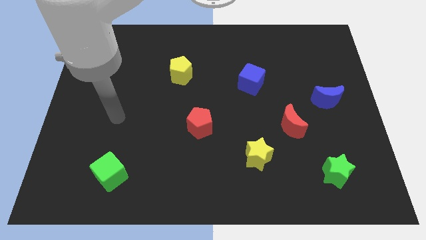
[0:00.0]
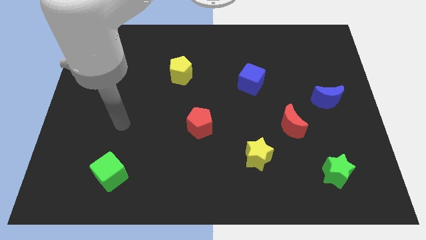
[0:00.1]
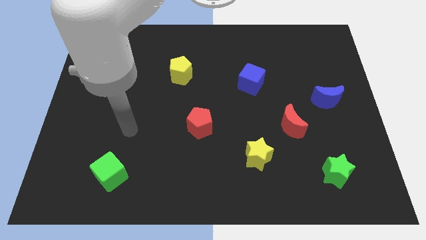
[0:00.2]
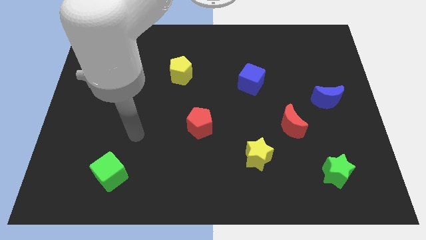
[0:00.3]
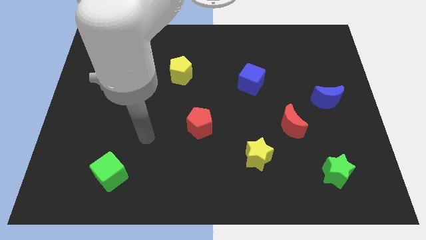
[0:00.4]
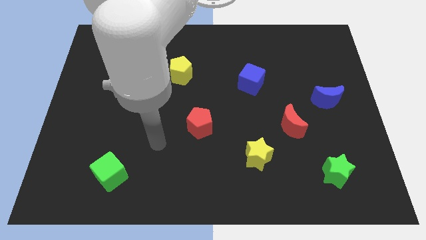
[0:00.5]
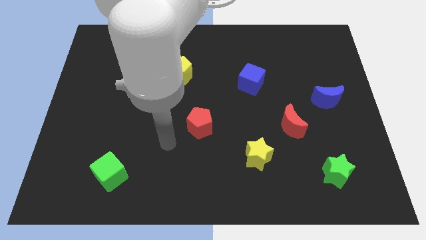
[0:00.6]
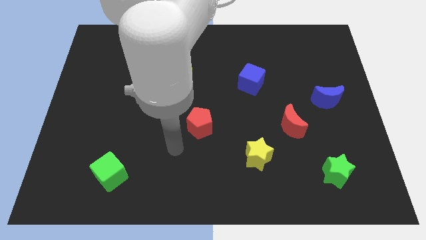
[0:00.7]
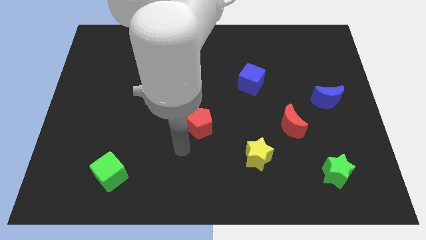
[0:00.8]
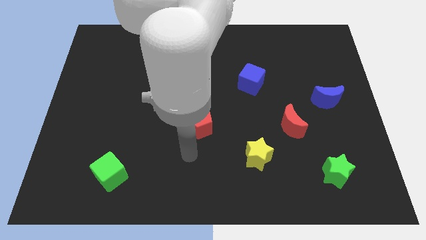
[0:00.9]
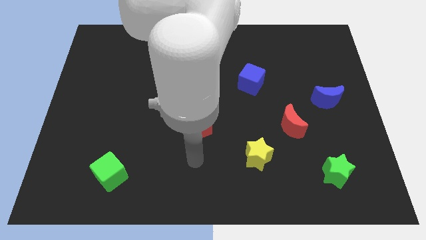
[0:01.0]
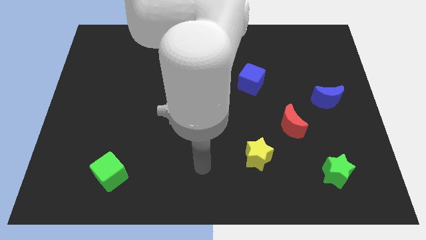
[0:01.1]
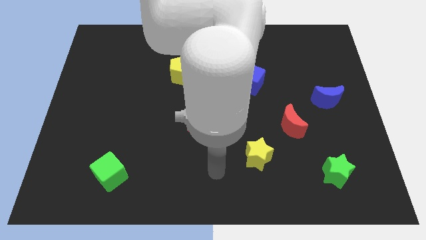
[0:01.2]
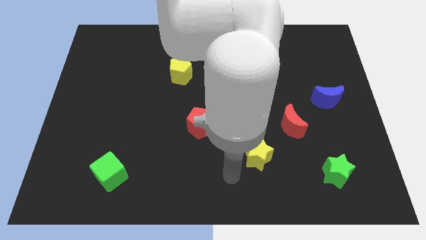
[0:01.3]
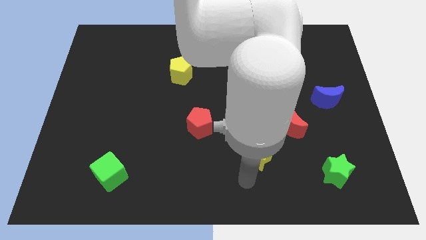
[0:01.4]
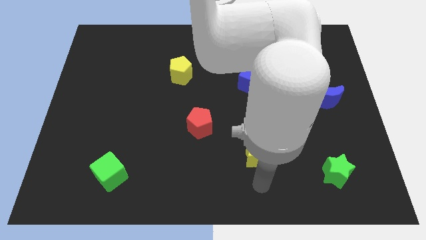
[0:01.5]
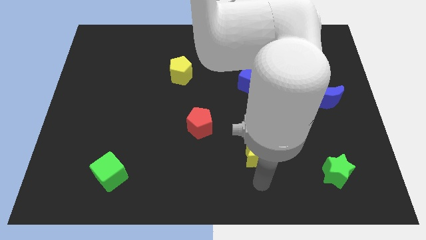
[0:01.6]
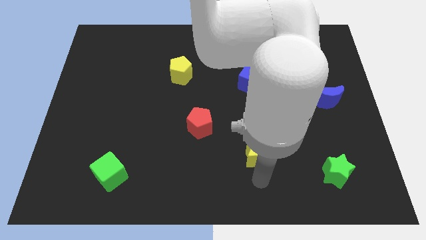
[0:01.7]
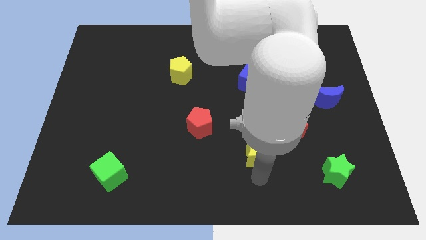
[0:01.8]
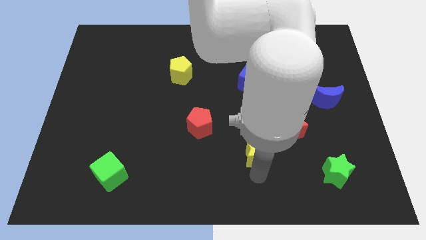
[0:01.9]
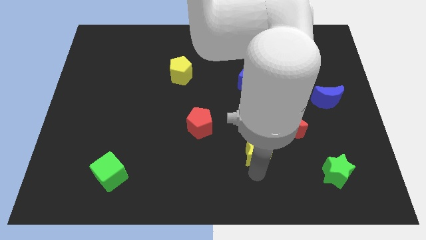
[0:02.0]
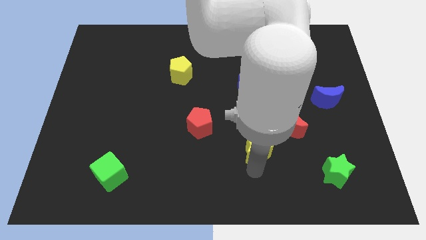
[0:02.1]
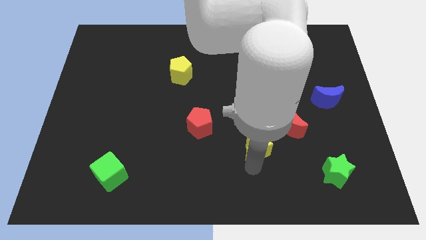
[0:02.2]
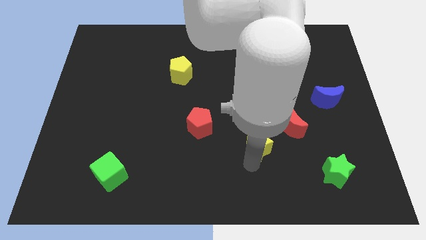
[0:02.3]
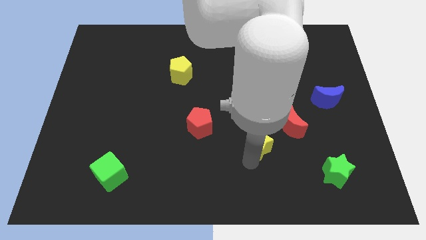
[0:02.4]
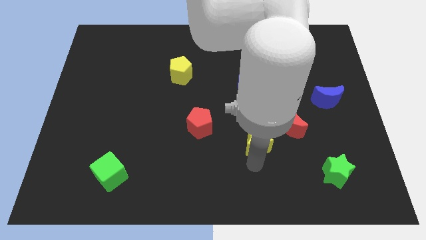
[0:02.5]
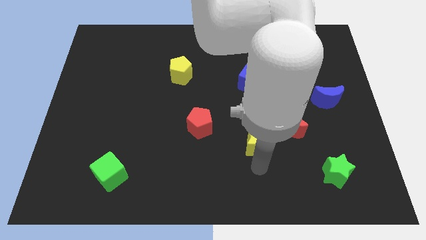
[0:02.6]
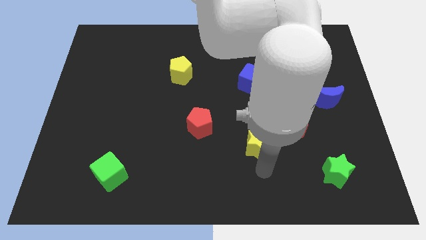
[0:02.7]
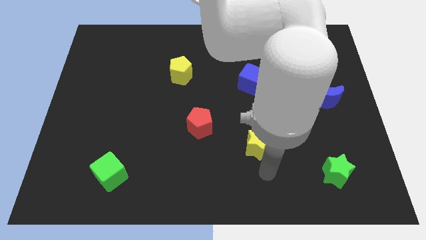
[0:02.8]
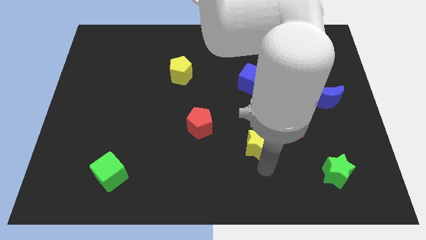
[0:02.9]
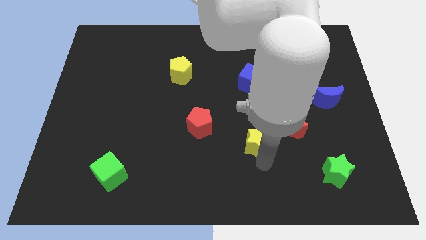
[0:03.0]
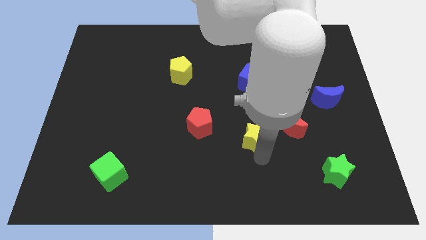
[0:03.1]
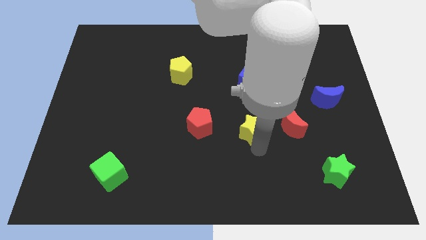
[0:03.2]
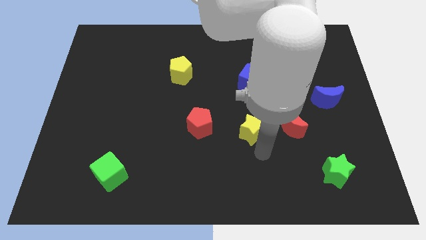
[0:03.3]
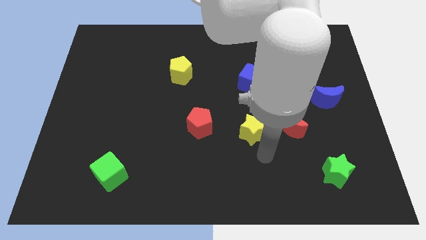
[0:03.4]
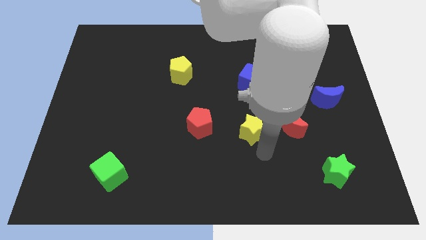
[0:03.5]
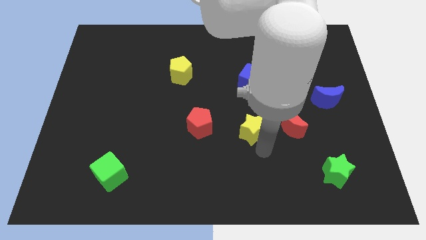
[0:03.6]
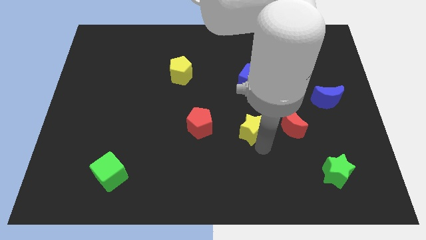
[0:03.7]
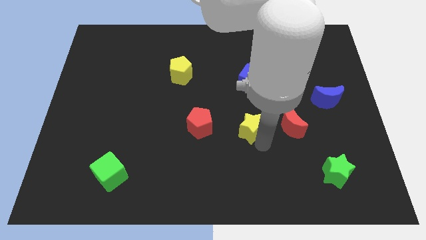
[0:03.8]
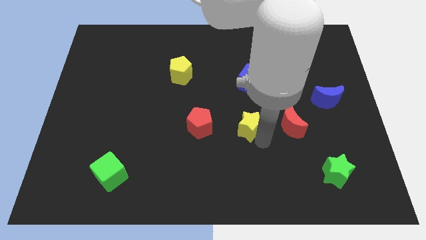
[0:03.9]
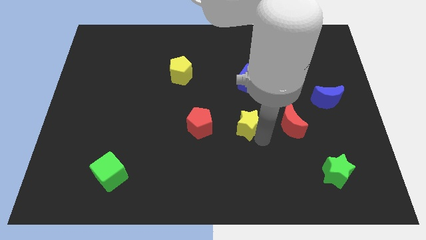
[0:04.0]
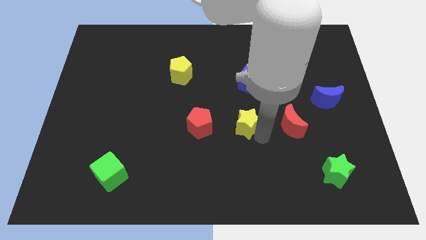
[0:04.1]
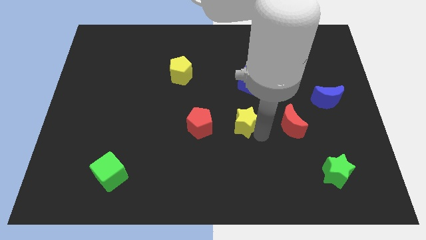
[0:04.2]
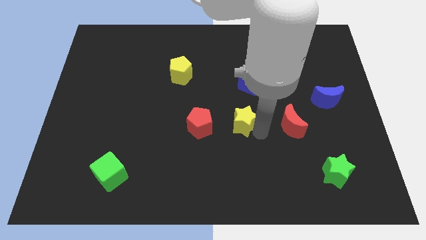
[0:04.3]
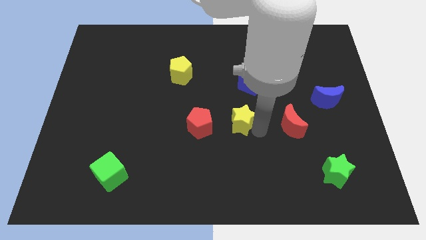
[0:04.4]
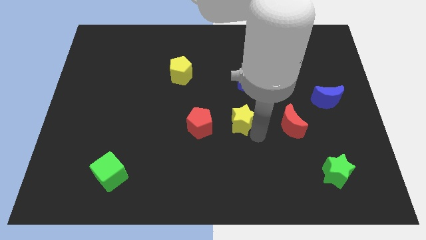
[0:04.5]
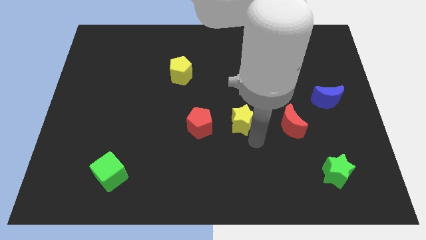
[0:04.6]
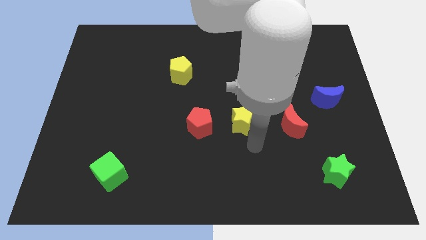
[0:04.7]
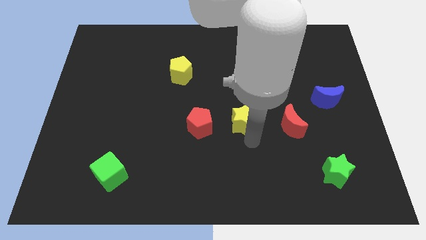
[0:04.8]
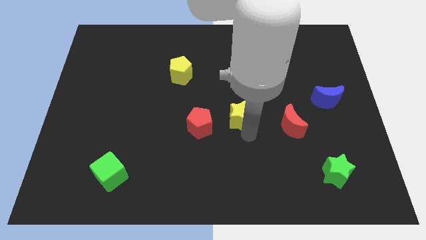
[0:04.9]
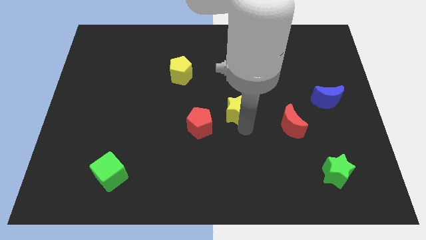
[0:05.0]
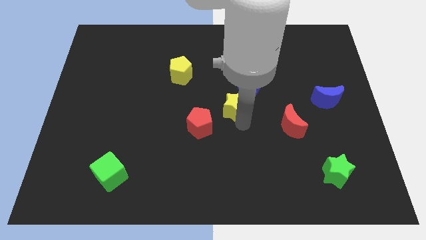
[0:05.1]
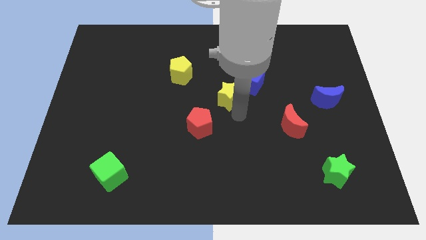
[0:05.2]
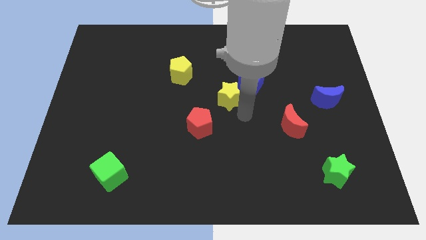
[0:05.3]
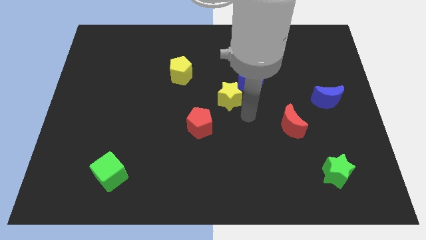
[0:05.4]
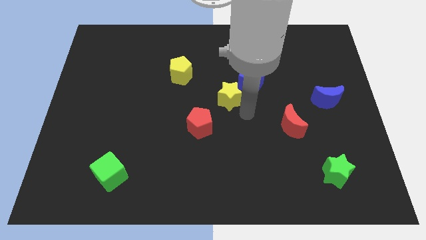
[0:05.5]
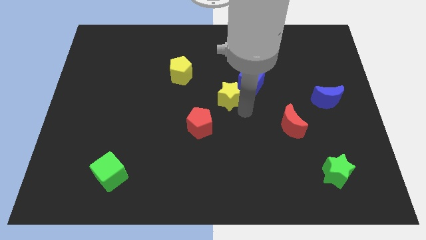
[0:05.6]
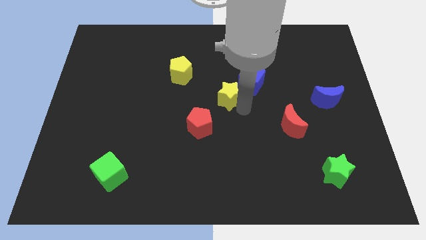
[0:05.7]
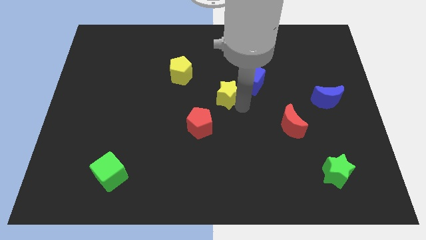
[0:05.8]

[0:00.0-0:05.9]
put the yellow star to the left side of the blue cube

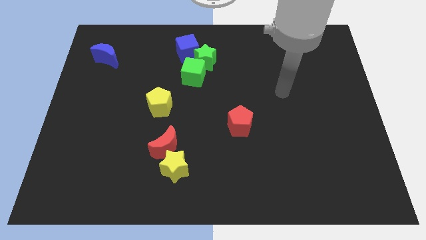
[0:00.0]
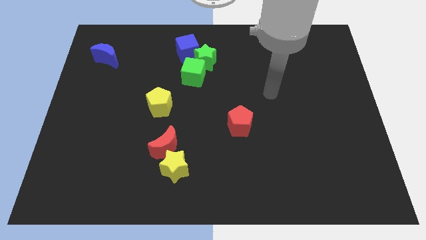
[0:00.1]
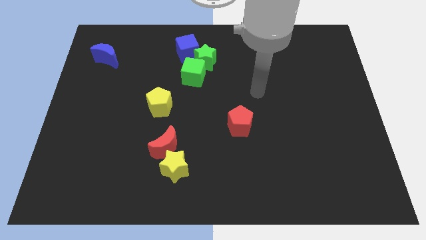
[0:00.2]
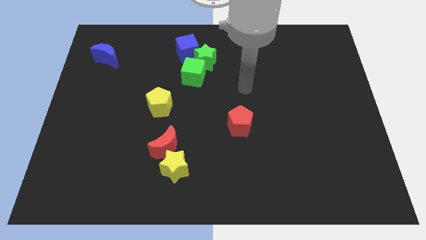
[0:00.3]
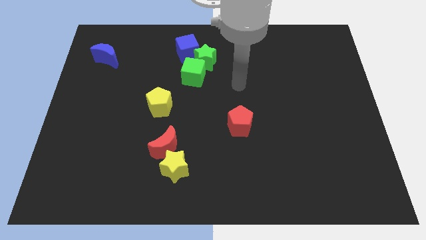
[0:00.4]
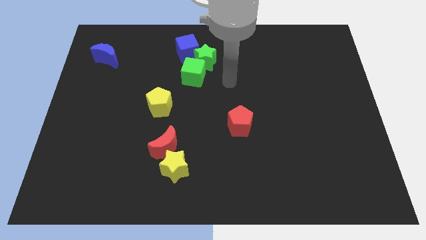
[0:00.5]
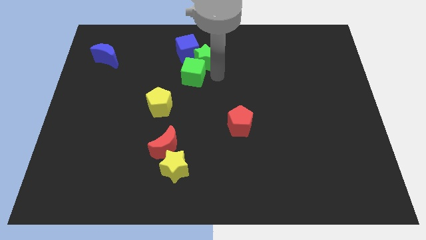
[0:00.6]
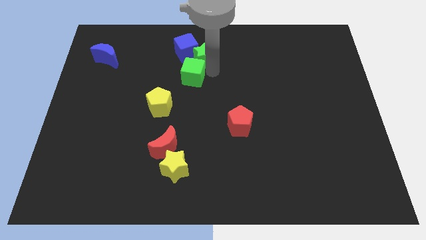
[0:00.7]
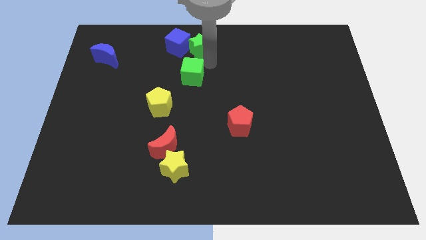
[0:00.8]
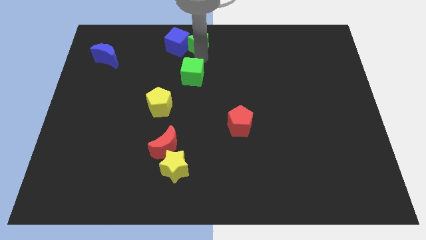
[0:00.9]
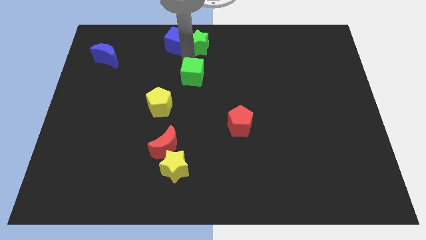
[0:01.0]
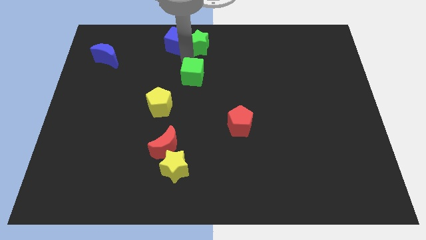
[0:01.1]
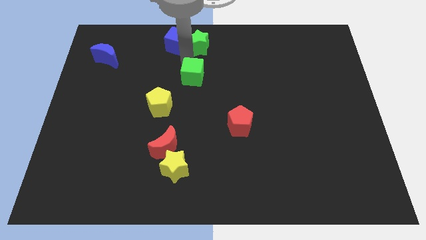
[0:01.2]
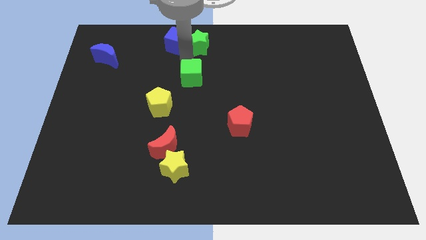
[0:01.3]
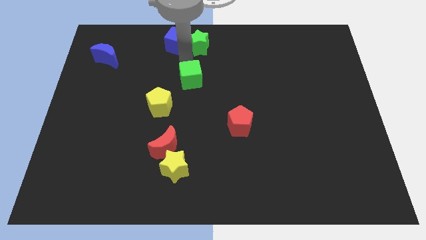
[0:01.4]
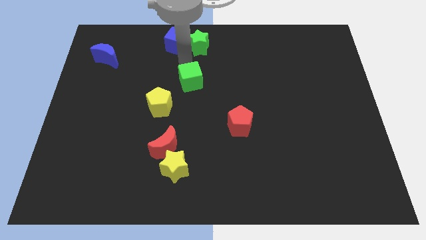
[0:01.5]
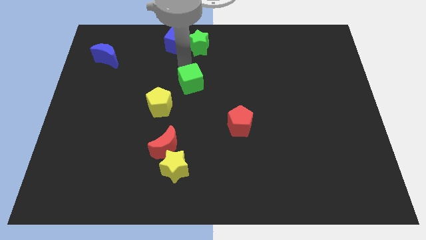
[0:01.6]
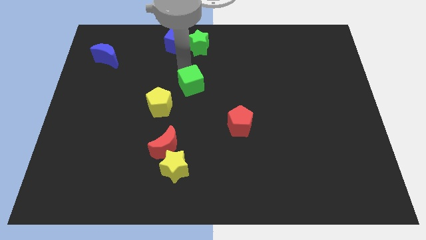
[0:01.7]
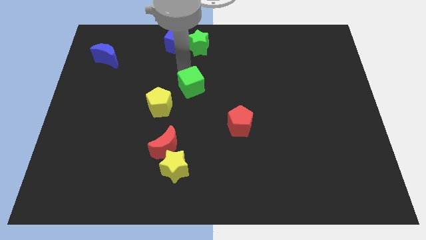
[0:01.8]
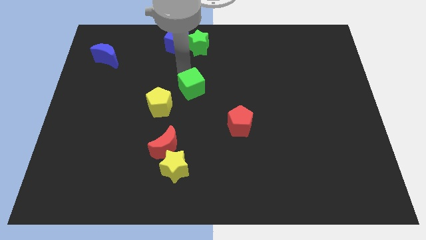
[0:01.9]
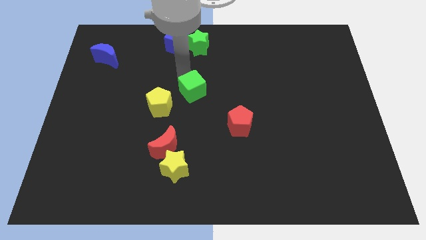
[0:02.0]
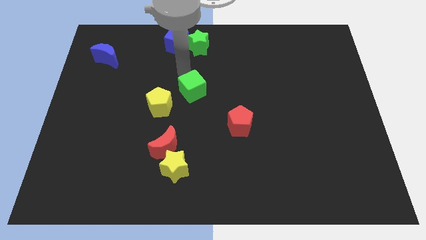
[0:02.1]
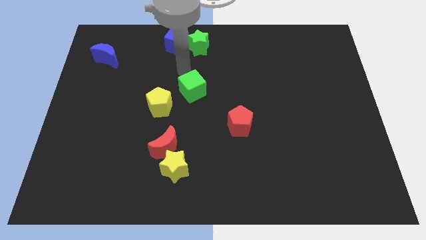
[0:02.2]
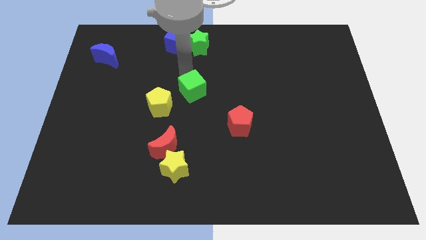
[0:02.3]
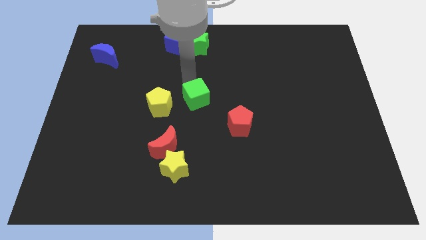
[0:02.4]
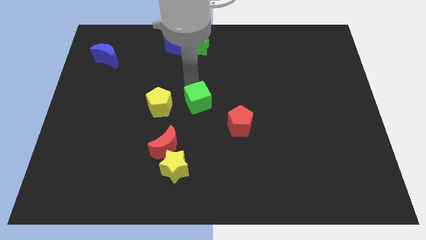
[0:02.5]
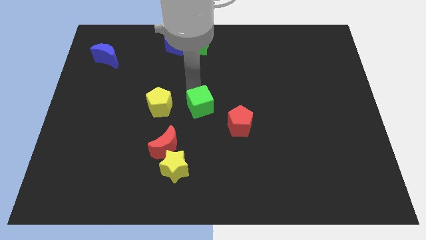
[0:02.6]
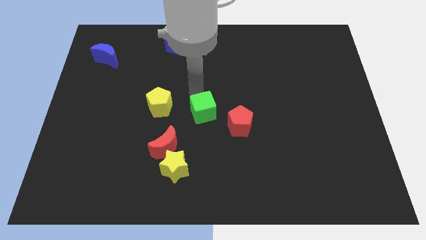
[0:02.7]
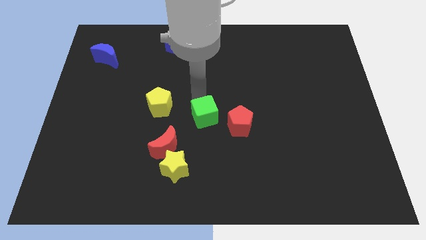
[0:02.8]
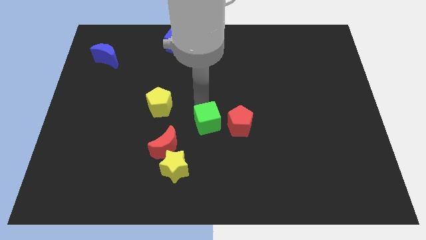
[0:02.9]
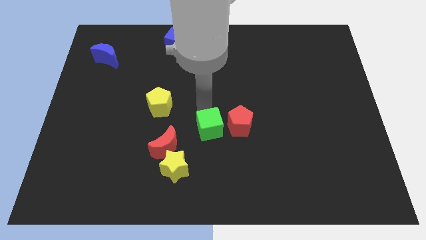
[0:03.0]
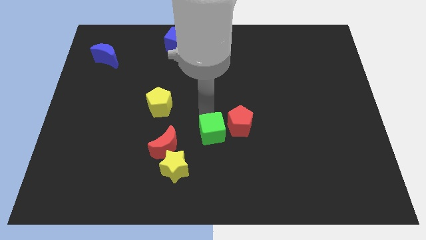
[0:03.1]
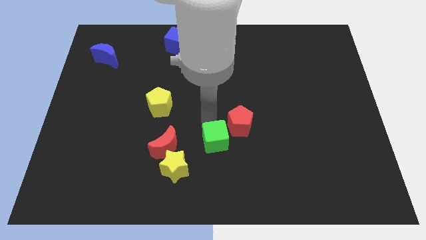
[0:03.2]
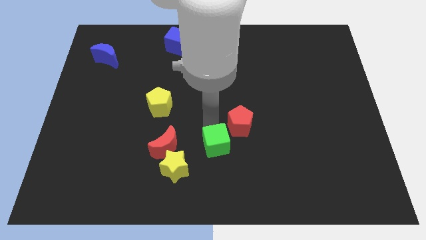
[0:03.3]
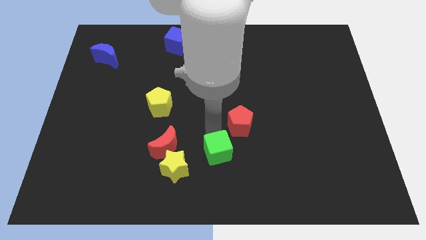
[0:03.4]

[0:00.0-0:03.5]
put the green cube to the right of the yellow star
